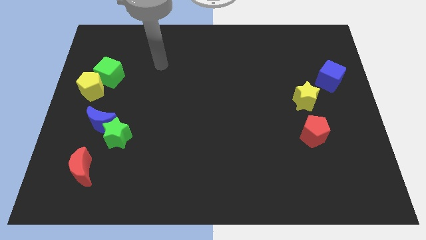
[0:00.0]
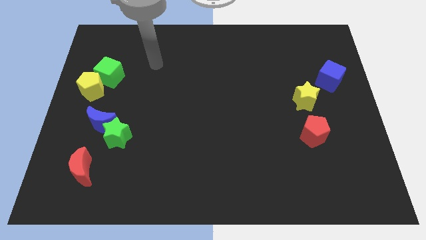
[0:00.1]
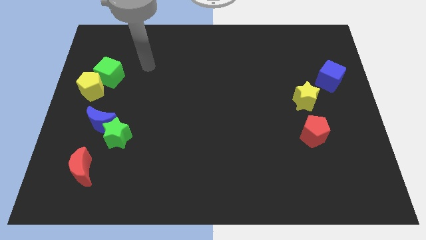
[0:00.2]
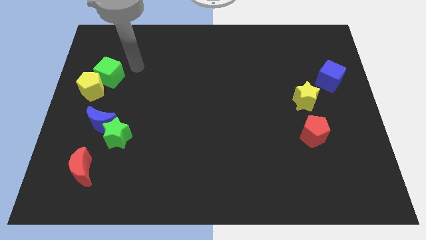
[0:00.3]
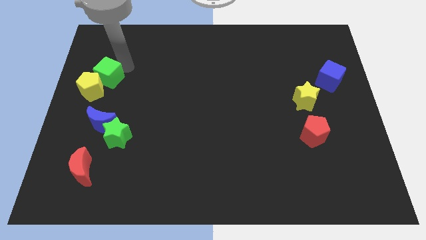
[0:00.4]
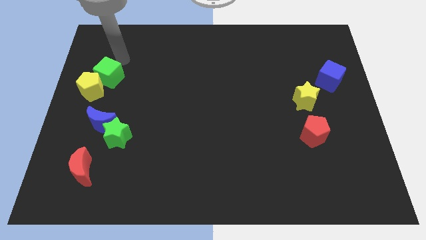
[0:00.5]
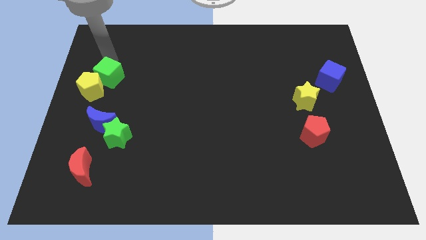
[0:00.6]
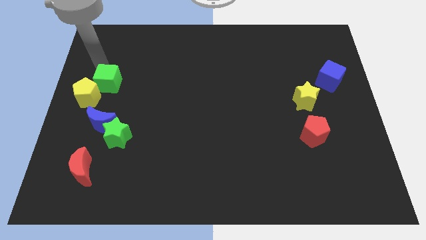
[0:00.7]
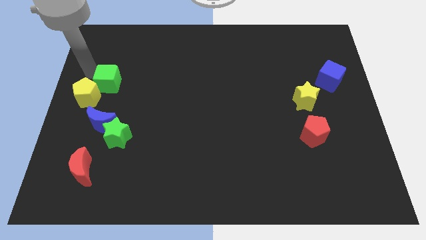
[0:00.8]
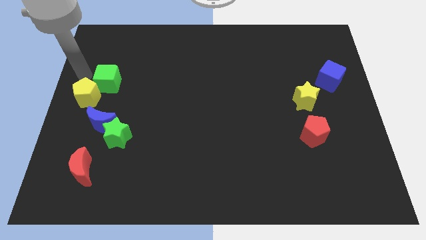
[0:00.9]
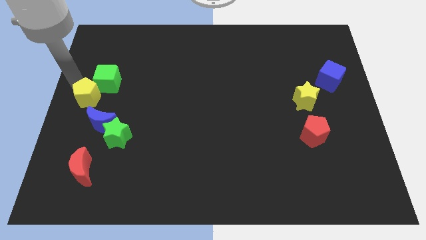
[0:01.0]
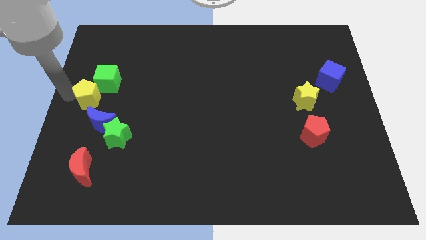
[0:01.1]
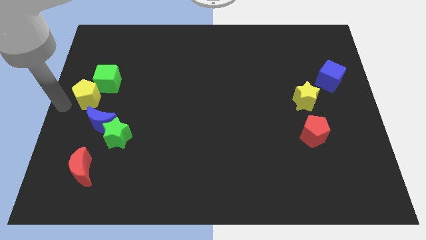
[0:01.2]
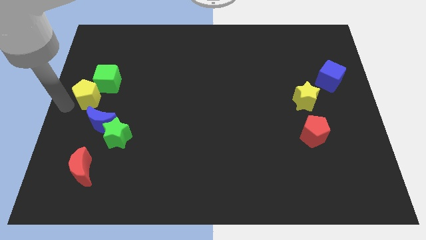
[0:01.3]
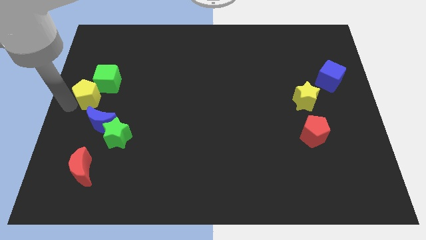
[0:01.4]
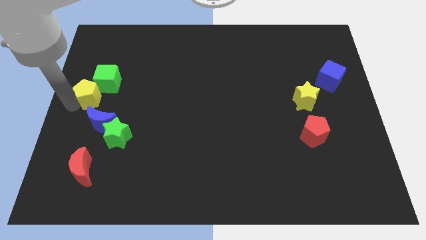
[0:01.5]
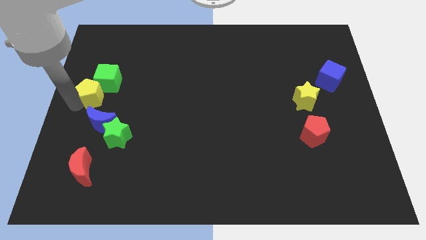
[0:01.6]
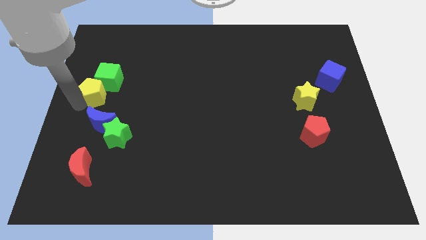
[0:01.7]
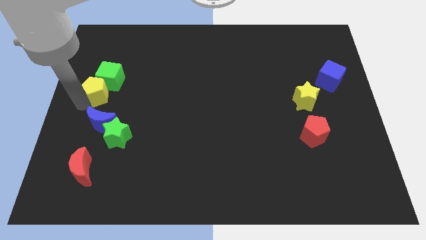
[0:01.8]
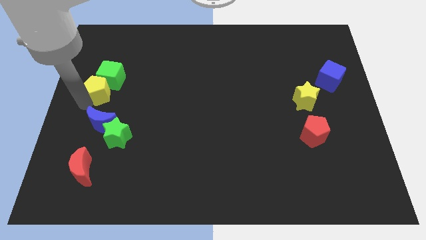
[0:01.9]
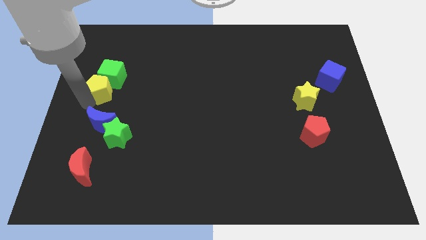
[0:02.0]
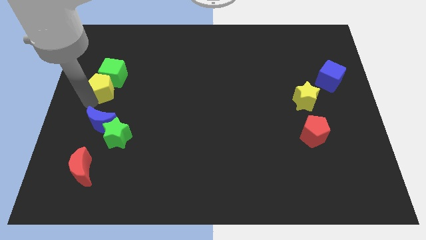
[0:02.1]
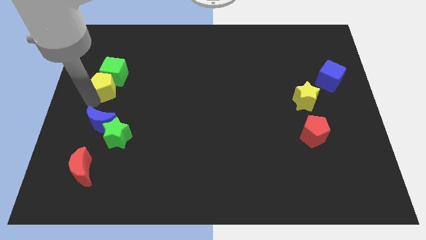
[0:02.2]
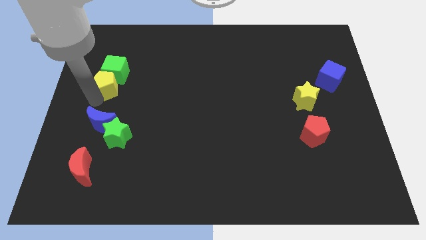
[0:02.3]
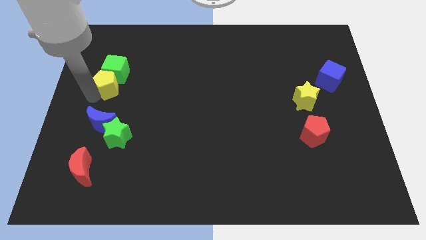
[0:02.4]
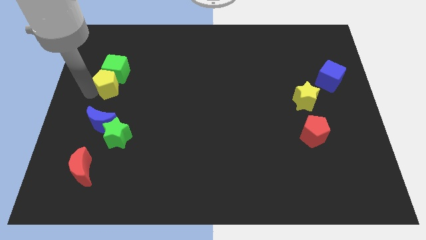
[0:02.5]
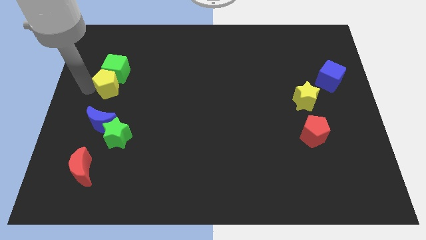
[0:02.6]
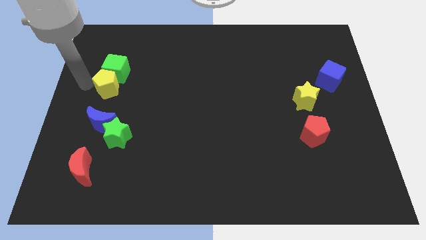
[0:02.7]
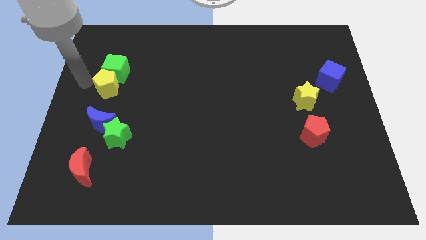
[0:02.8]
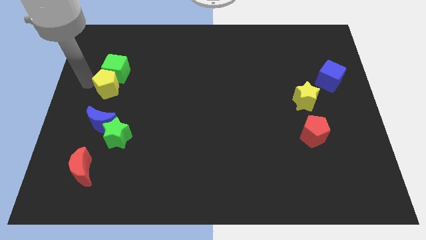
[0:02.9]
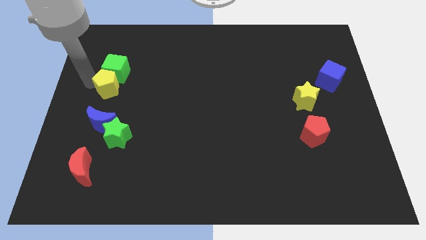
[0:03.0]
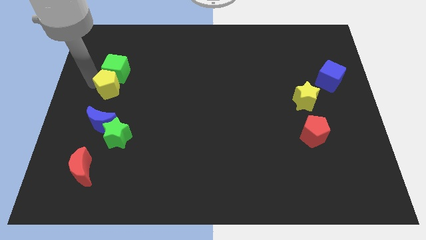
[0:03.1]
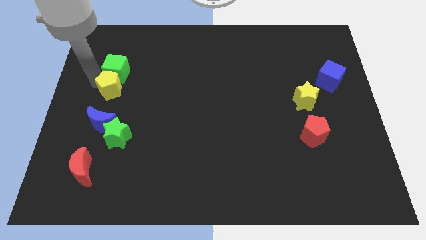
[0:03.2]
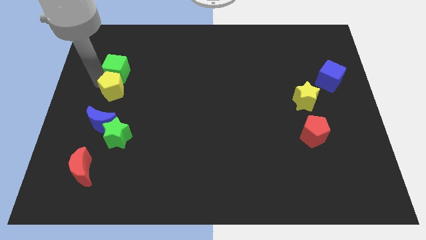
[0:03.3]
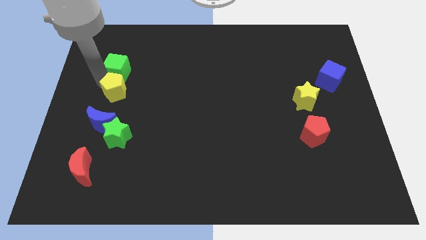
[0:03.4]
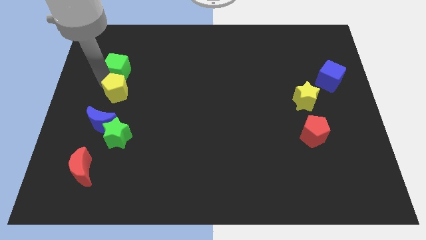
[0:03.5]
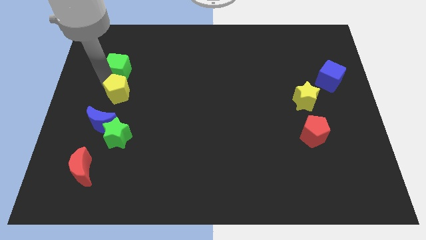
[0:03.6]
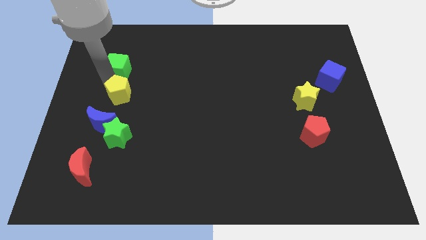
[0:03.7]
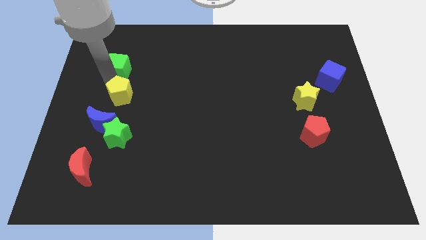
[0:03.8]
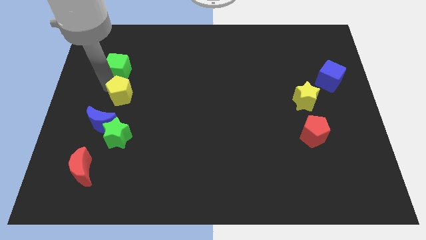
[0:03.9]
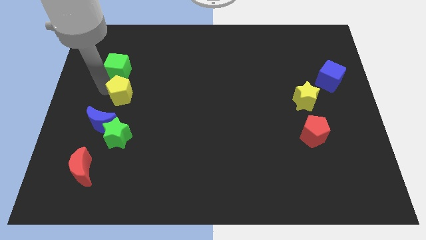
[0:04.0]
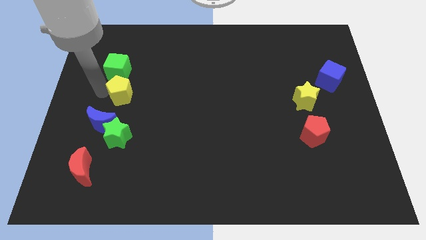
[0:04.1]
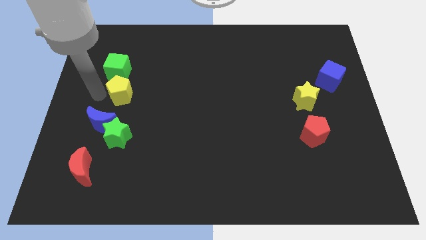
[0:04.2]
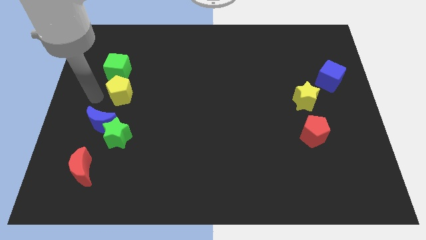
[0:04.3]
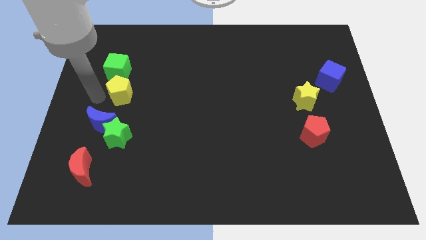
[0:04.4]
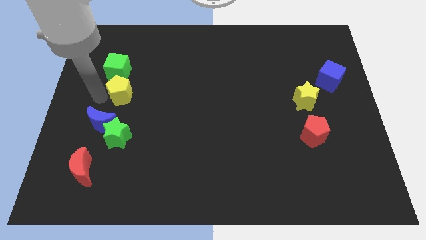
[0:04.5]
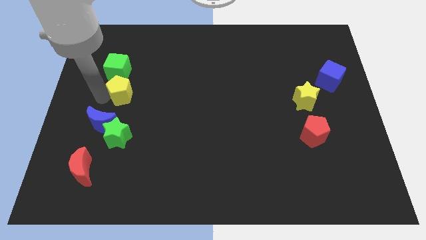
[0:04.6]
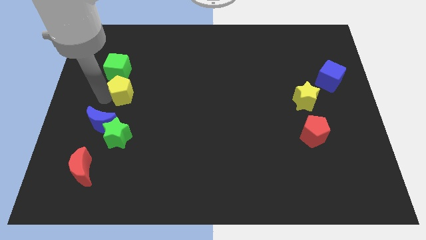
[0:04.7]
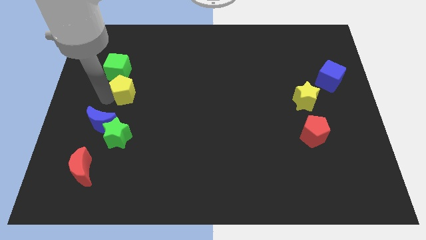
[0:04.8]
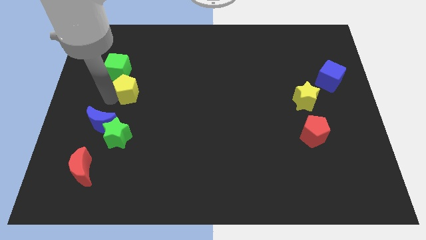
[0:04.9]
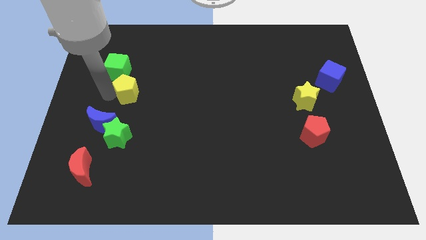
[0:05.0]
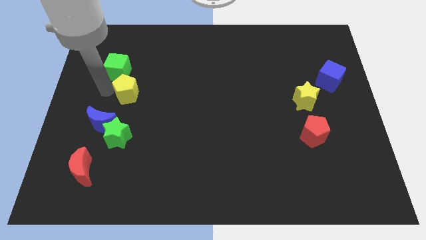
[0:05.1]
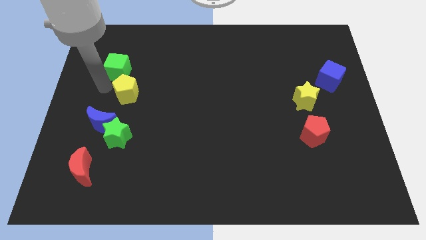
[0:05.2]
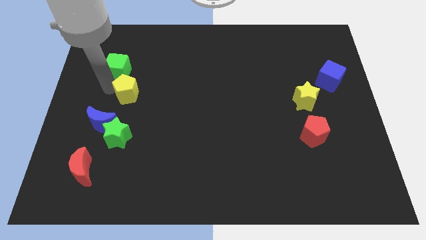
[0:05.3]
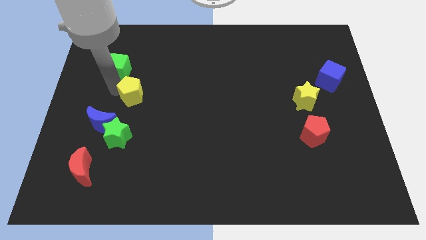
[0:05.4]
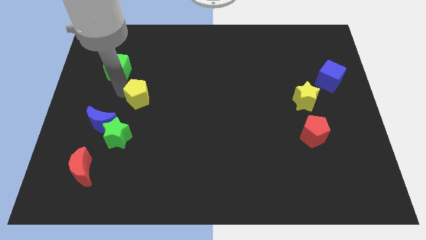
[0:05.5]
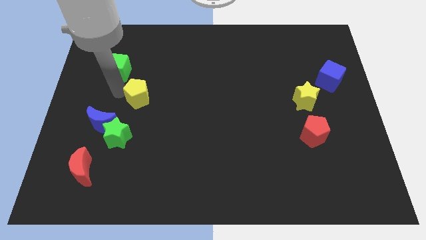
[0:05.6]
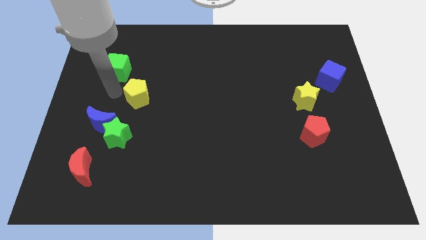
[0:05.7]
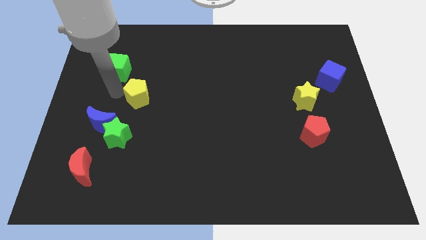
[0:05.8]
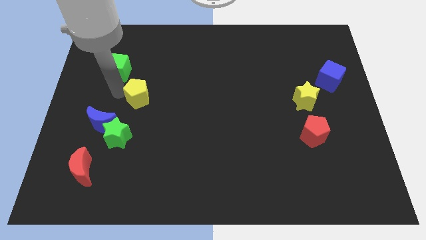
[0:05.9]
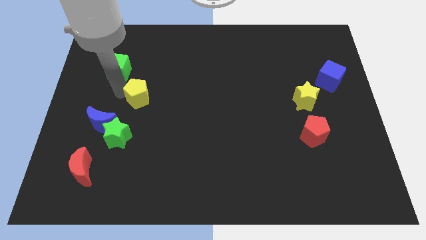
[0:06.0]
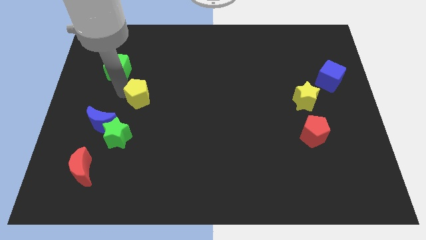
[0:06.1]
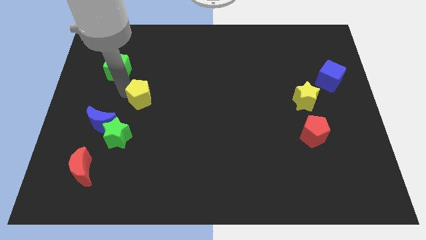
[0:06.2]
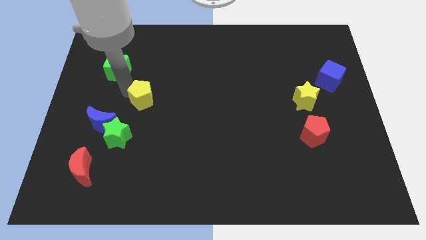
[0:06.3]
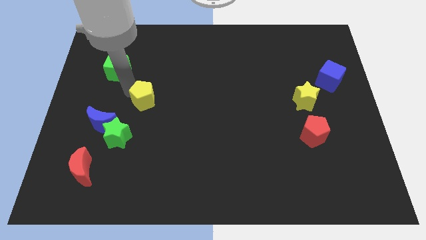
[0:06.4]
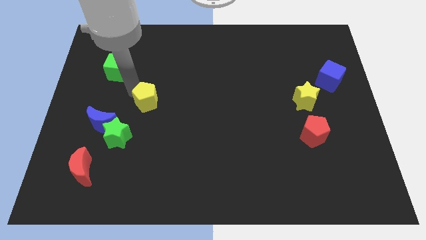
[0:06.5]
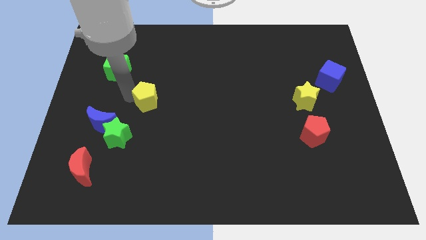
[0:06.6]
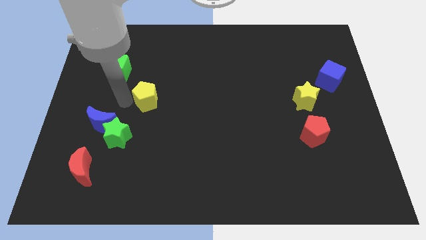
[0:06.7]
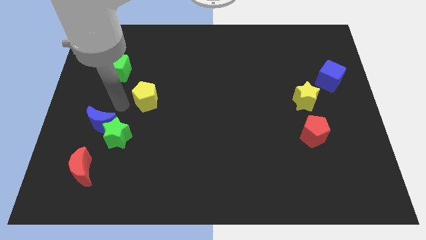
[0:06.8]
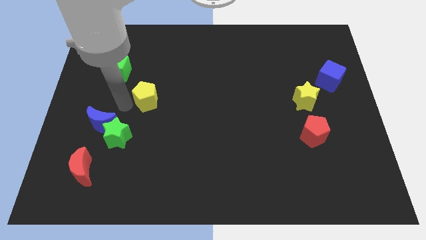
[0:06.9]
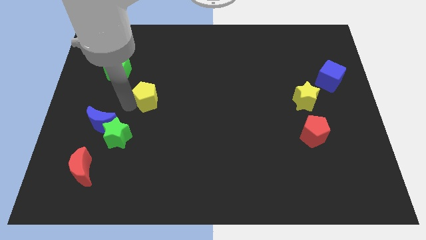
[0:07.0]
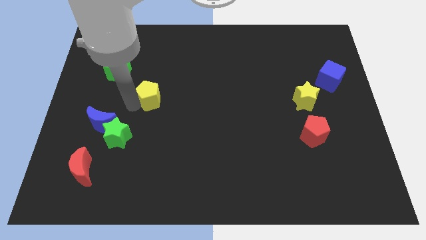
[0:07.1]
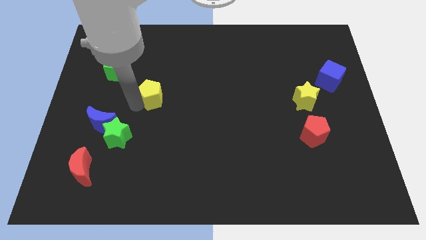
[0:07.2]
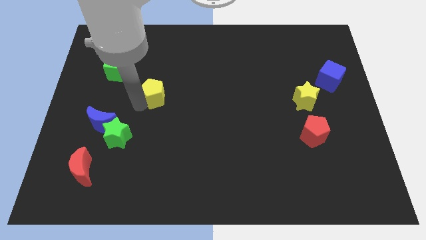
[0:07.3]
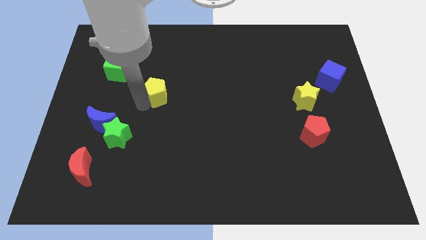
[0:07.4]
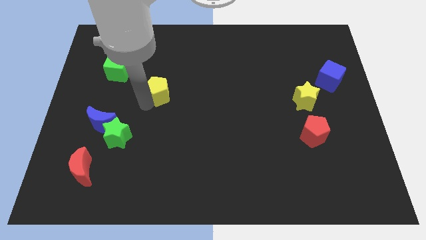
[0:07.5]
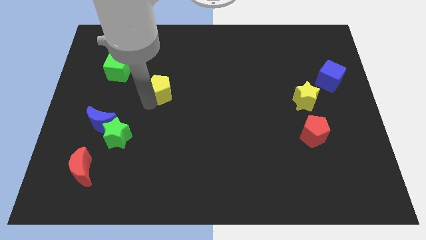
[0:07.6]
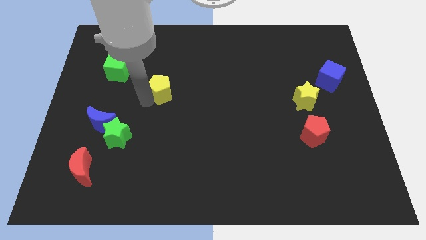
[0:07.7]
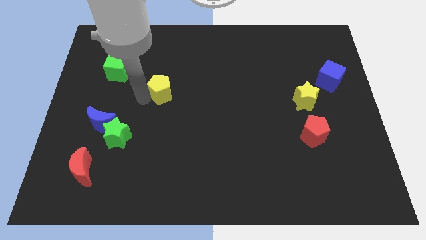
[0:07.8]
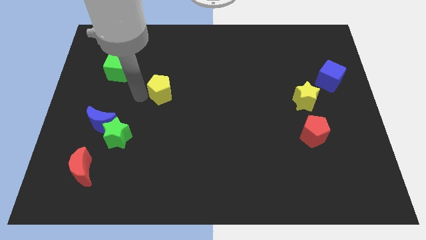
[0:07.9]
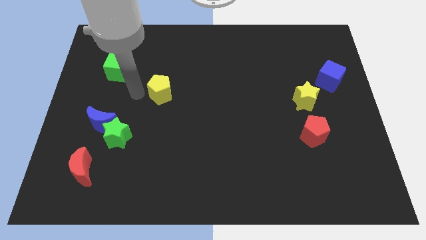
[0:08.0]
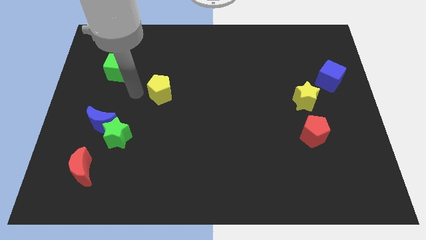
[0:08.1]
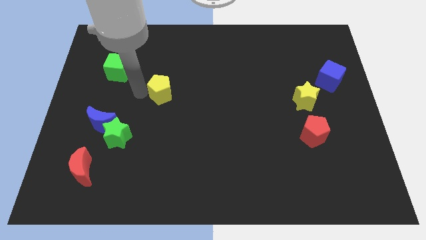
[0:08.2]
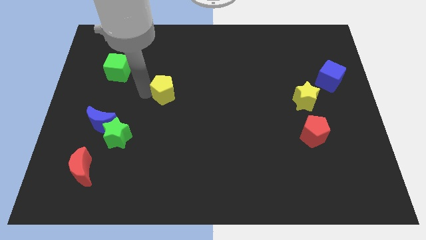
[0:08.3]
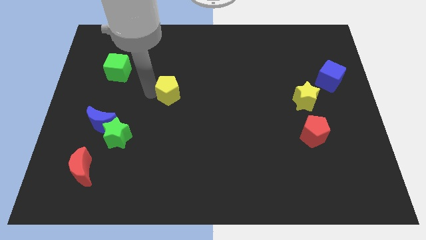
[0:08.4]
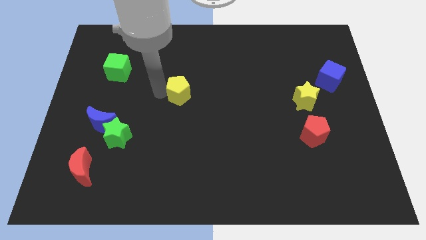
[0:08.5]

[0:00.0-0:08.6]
move the yellow pentagon to the right

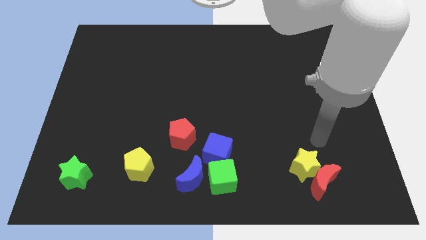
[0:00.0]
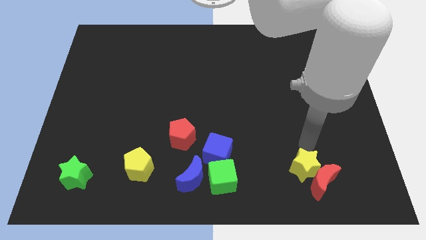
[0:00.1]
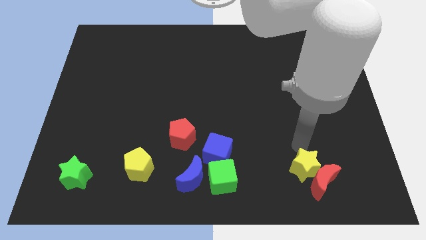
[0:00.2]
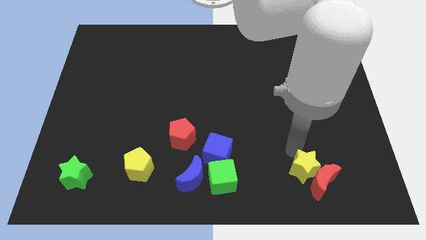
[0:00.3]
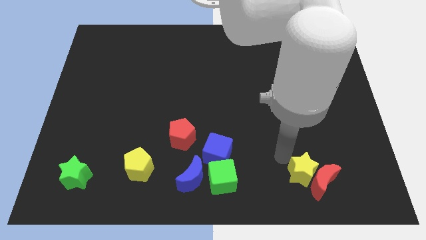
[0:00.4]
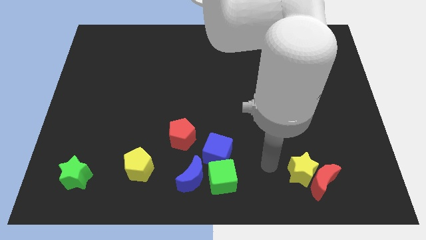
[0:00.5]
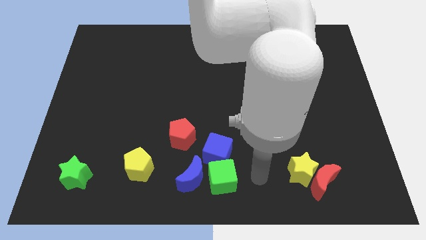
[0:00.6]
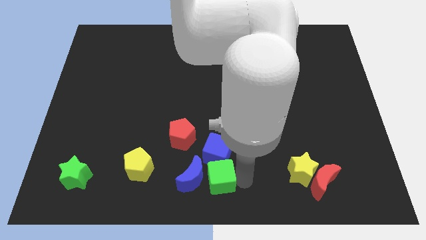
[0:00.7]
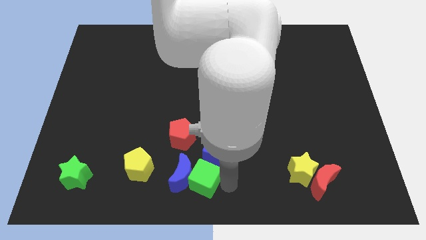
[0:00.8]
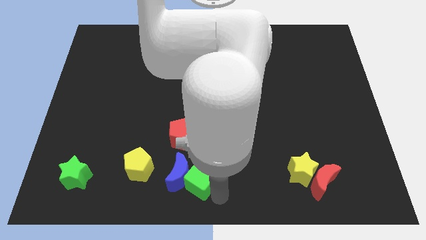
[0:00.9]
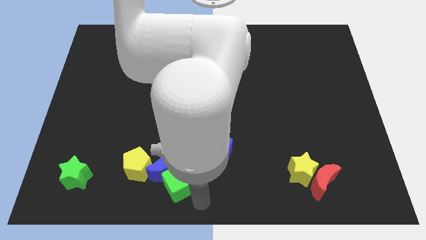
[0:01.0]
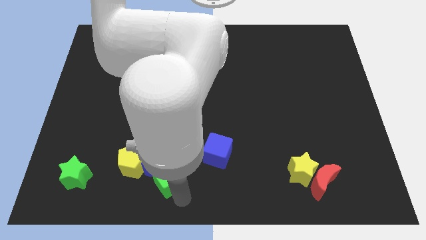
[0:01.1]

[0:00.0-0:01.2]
slide the blue moon up and then left somewhat
